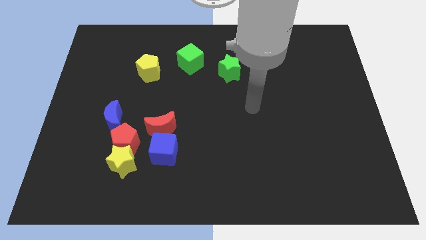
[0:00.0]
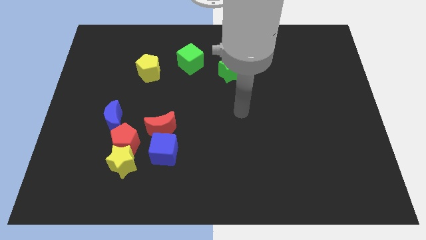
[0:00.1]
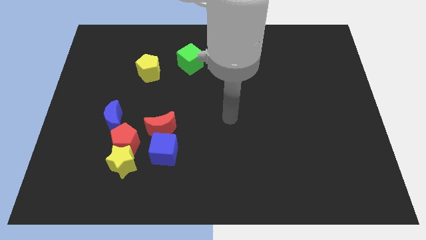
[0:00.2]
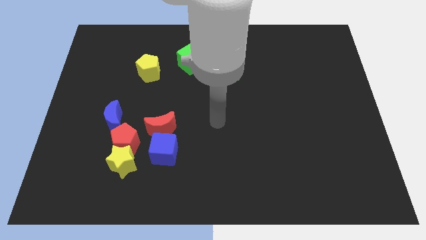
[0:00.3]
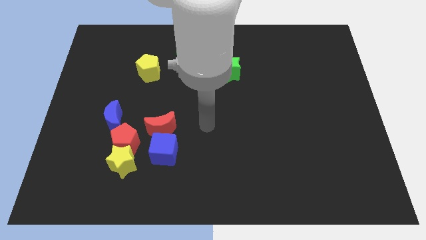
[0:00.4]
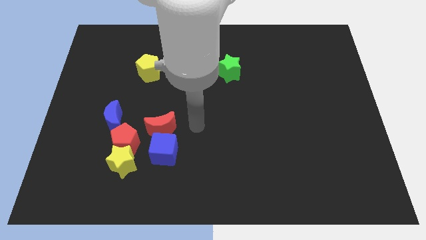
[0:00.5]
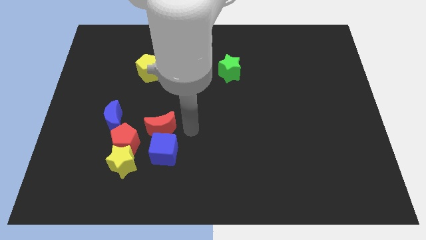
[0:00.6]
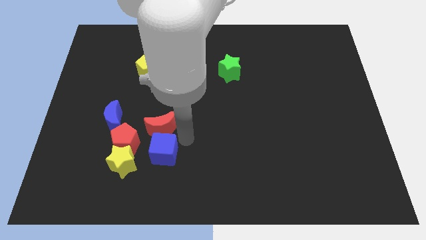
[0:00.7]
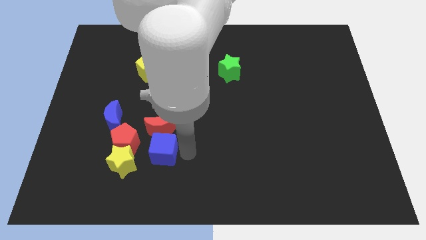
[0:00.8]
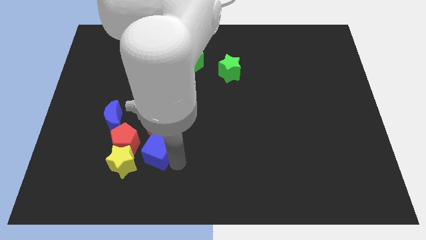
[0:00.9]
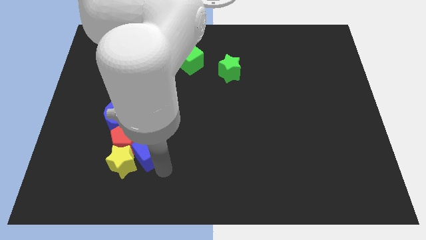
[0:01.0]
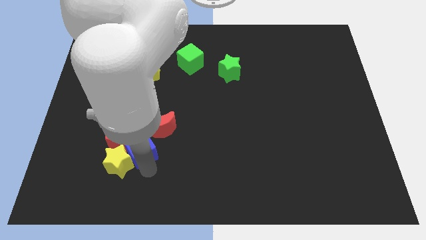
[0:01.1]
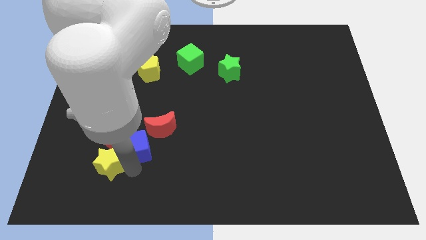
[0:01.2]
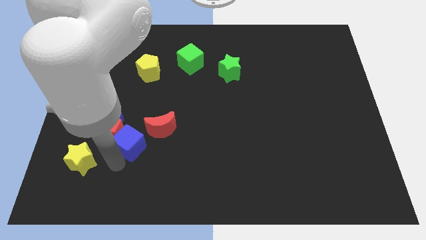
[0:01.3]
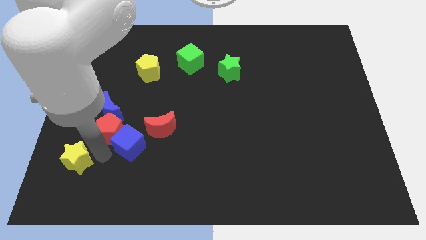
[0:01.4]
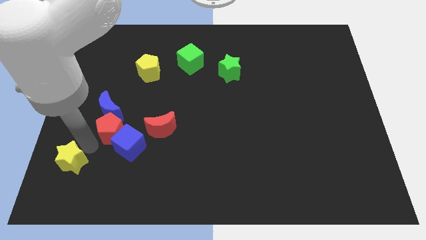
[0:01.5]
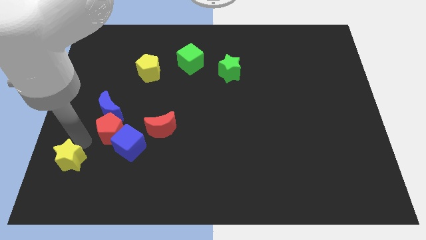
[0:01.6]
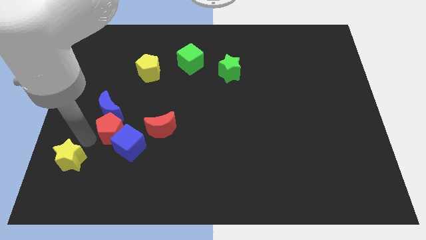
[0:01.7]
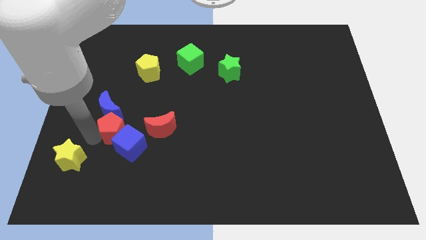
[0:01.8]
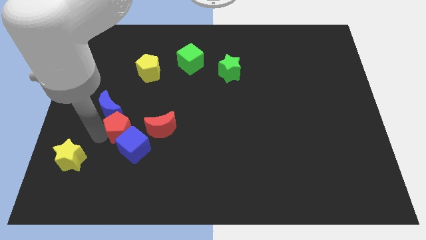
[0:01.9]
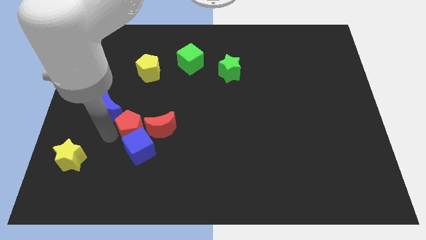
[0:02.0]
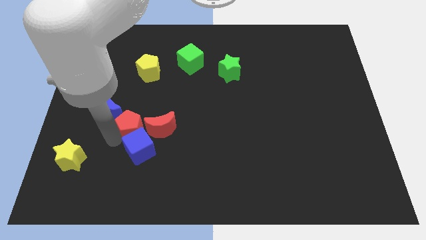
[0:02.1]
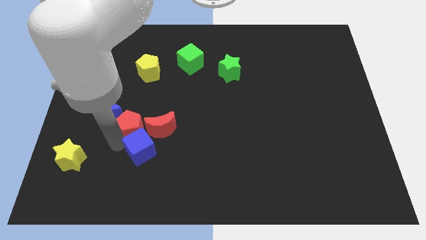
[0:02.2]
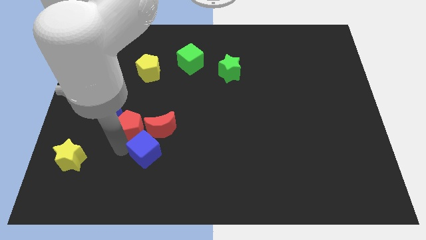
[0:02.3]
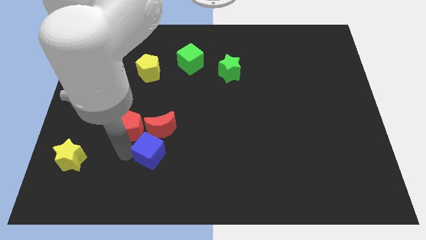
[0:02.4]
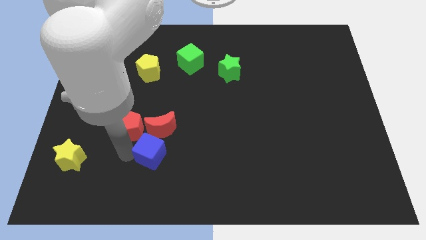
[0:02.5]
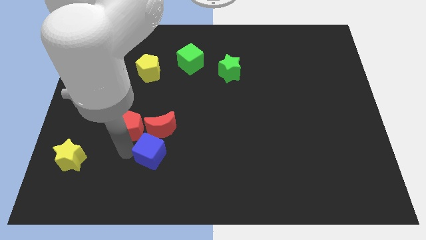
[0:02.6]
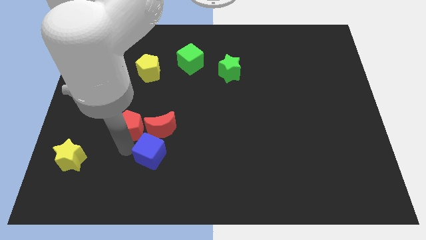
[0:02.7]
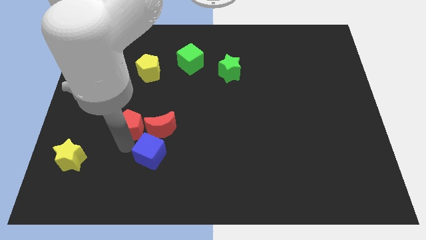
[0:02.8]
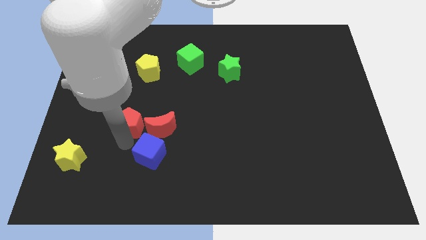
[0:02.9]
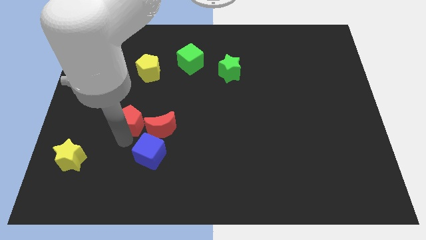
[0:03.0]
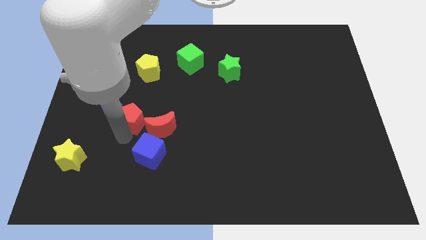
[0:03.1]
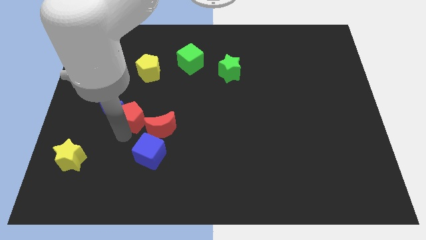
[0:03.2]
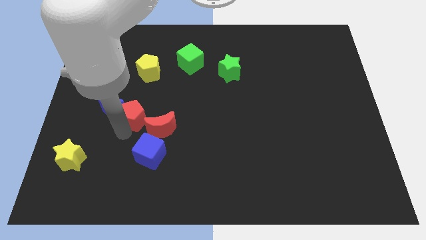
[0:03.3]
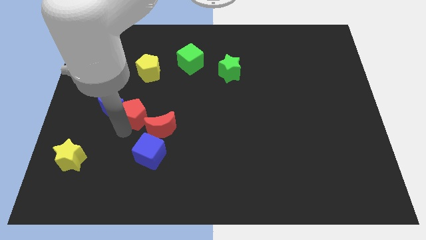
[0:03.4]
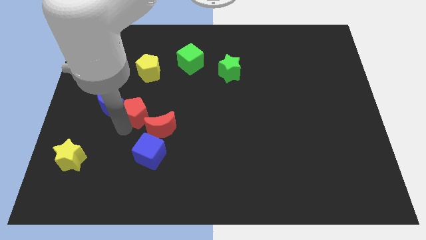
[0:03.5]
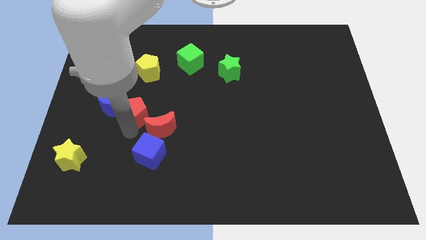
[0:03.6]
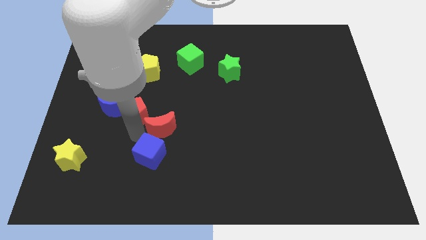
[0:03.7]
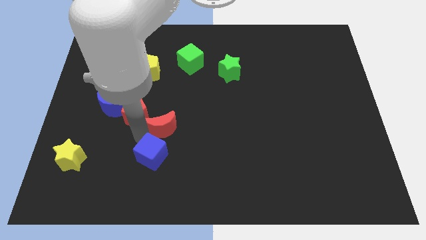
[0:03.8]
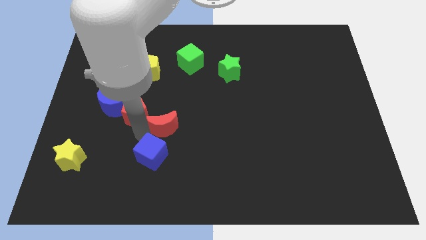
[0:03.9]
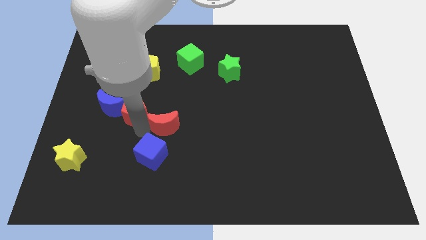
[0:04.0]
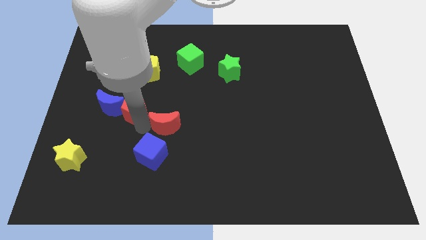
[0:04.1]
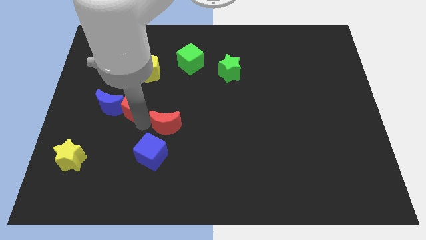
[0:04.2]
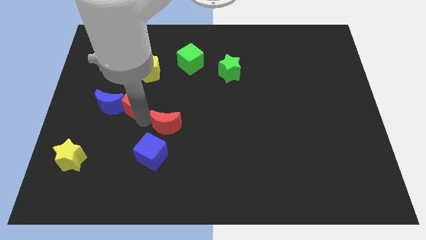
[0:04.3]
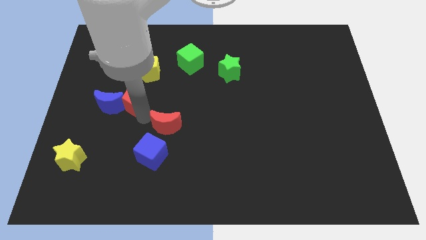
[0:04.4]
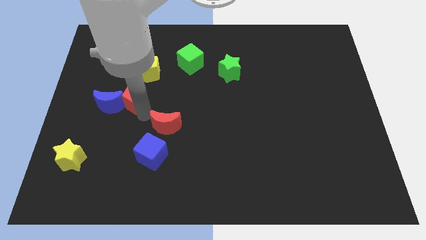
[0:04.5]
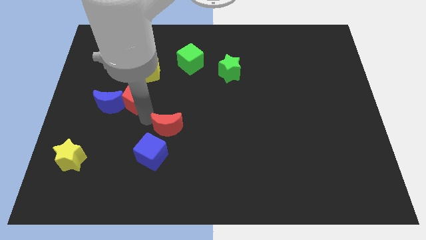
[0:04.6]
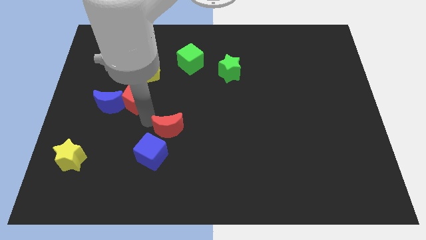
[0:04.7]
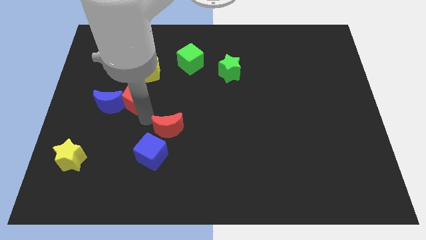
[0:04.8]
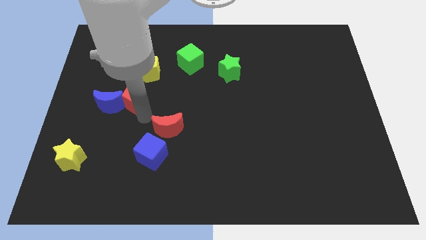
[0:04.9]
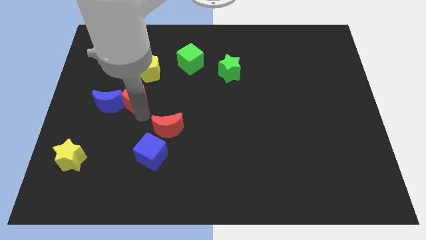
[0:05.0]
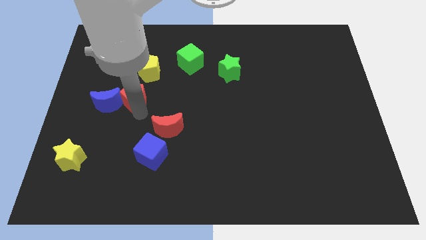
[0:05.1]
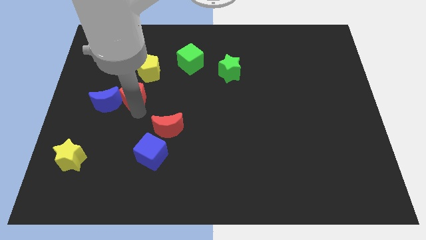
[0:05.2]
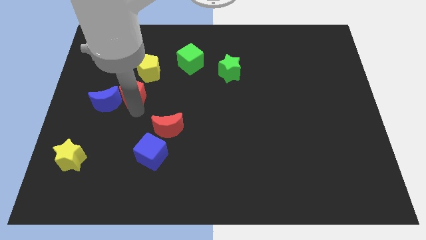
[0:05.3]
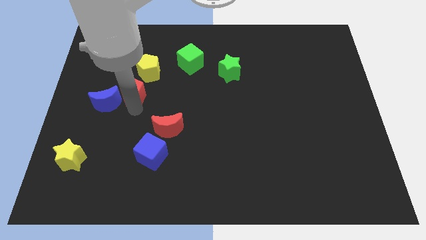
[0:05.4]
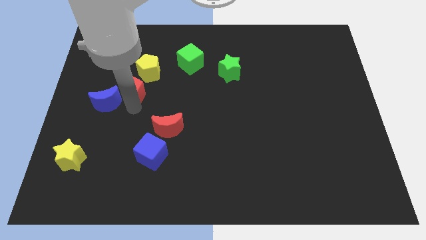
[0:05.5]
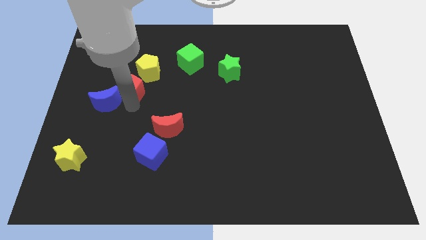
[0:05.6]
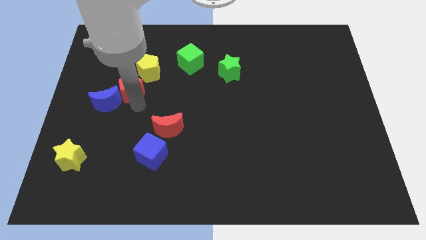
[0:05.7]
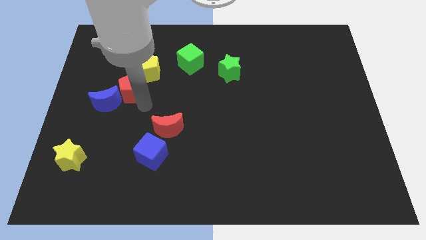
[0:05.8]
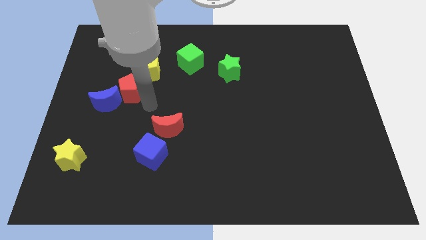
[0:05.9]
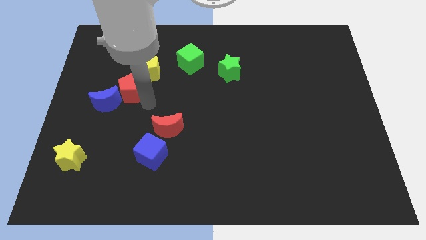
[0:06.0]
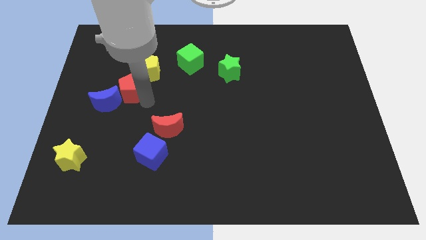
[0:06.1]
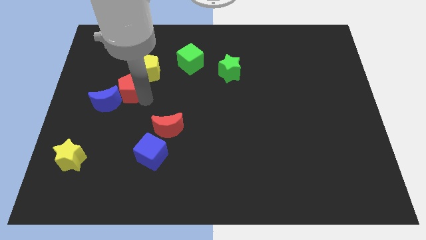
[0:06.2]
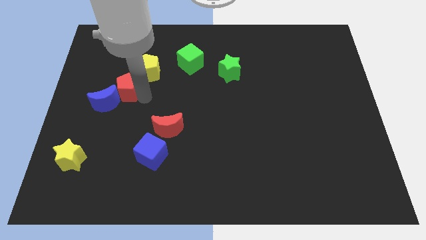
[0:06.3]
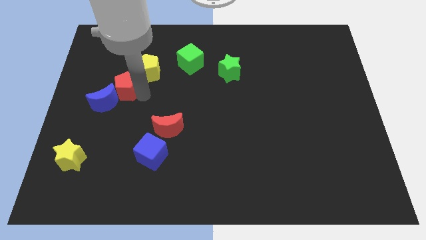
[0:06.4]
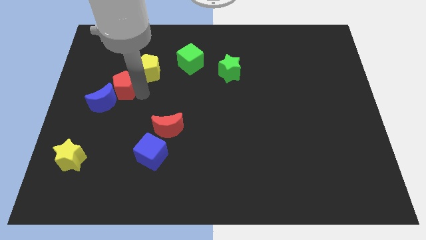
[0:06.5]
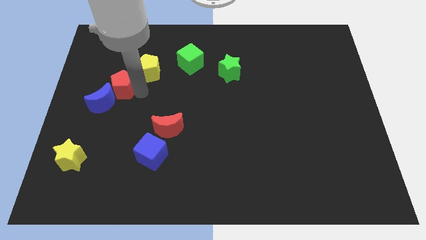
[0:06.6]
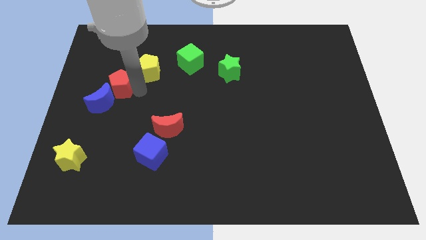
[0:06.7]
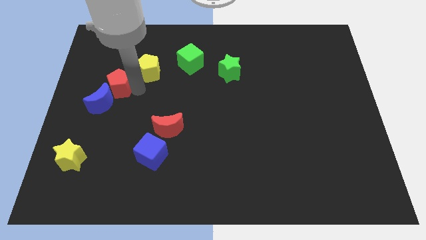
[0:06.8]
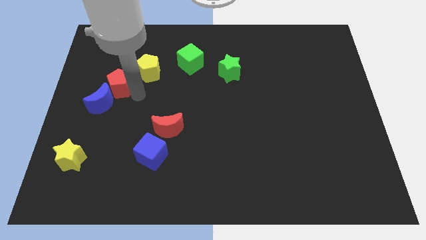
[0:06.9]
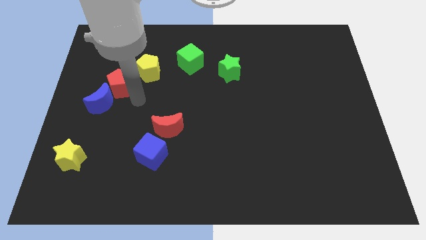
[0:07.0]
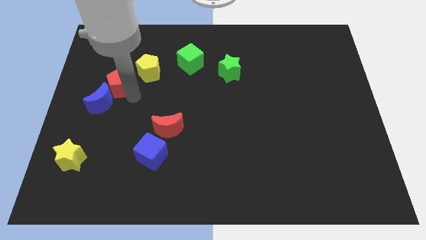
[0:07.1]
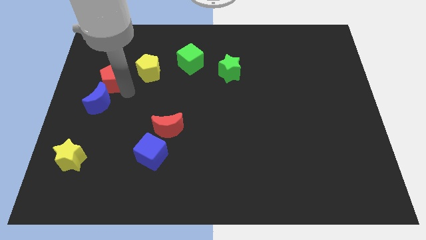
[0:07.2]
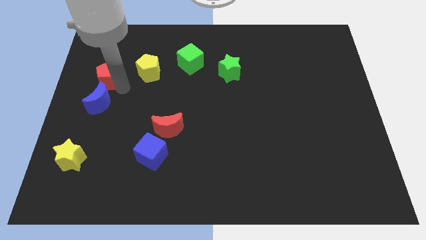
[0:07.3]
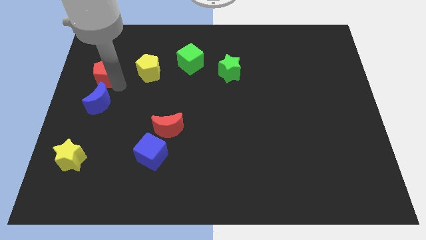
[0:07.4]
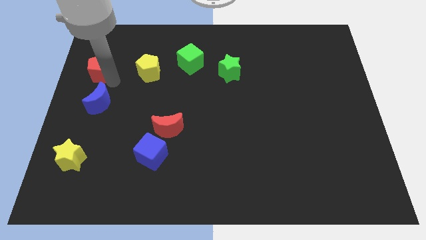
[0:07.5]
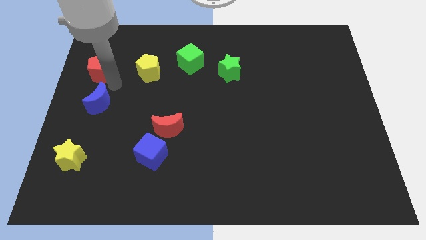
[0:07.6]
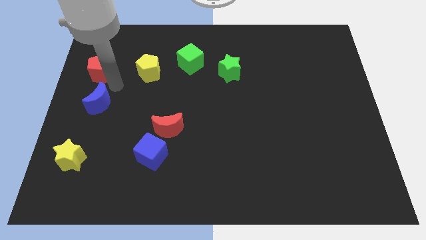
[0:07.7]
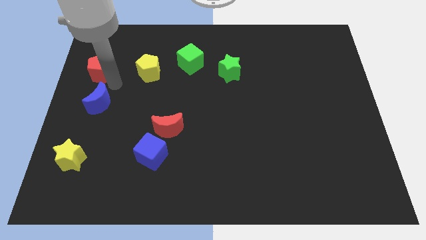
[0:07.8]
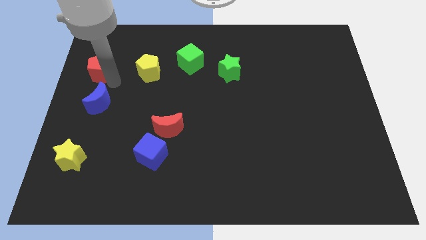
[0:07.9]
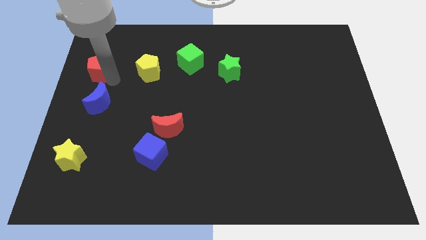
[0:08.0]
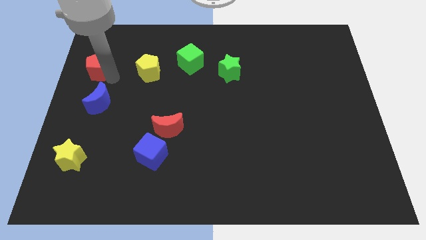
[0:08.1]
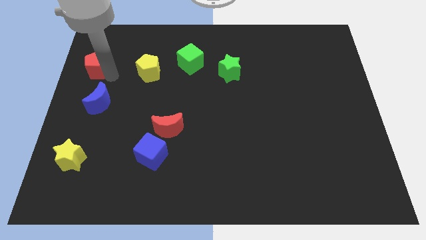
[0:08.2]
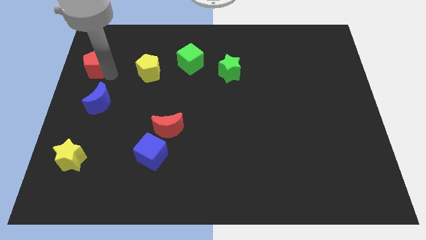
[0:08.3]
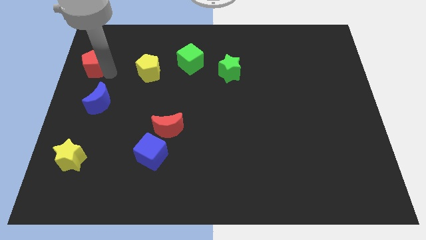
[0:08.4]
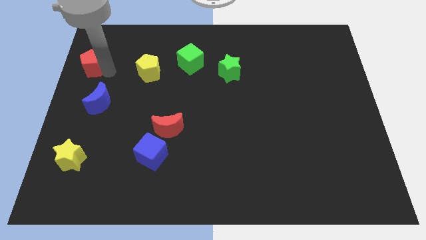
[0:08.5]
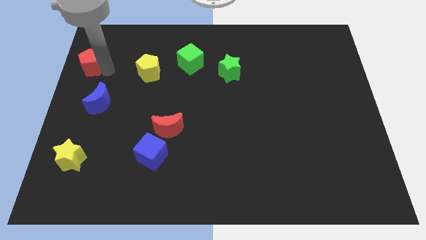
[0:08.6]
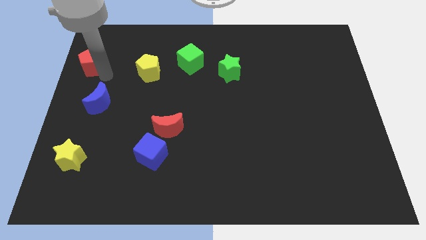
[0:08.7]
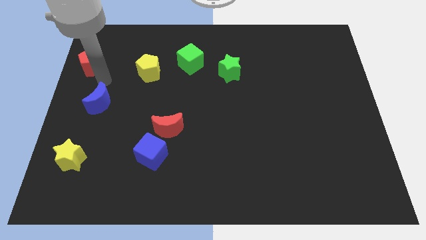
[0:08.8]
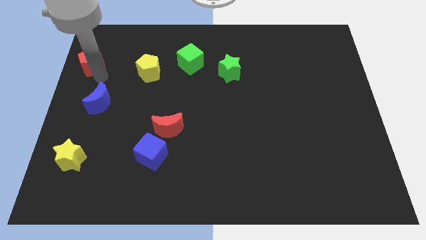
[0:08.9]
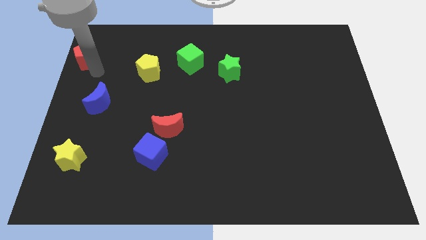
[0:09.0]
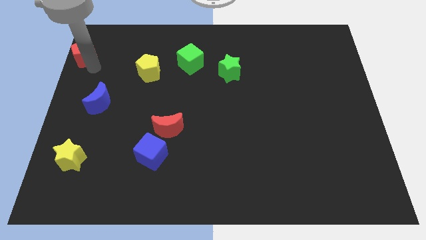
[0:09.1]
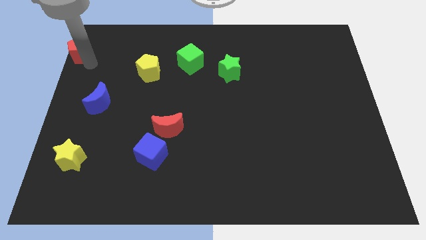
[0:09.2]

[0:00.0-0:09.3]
move the red pentagon to the top left
